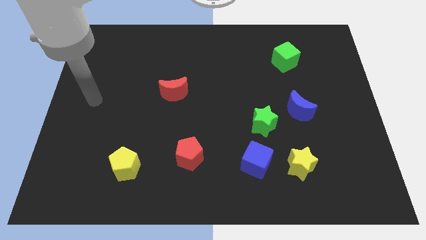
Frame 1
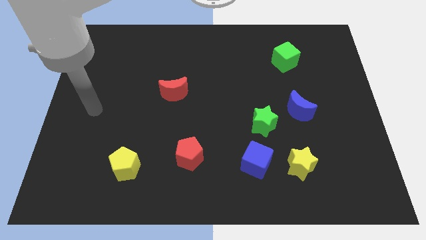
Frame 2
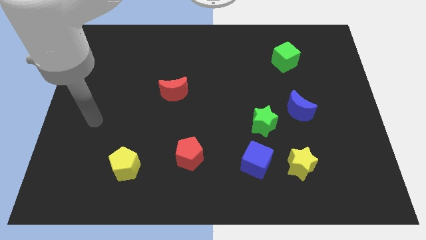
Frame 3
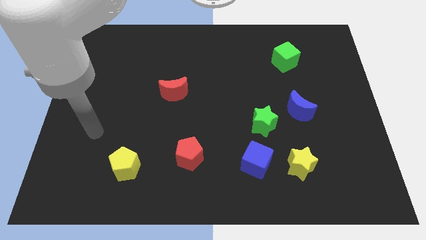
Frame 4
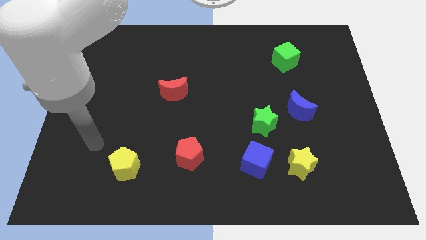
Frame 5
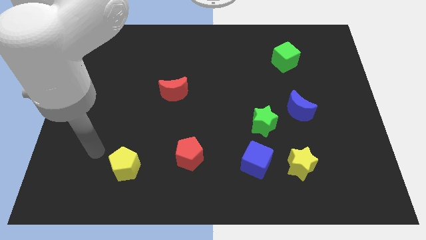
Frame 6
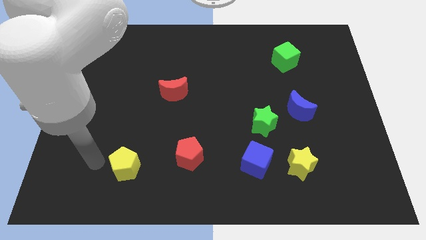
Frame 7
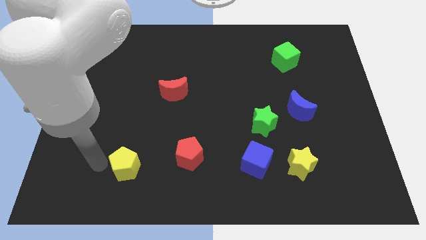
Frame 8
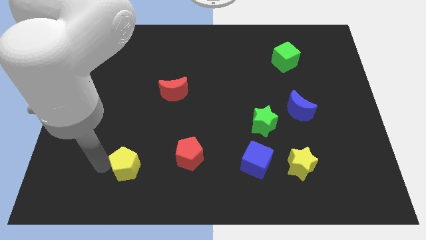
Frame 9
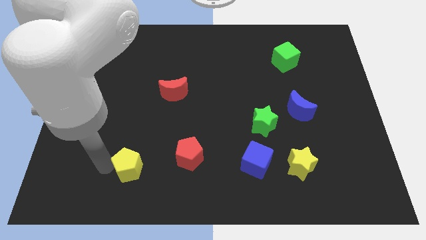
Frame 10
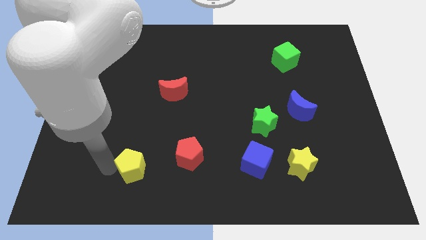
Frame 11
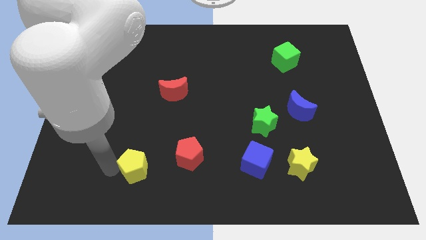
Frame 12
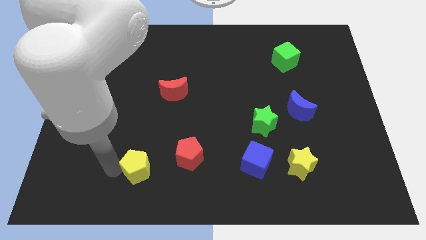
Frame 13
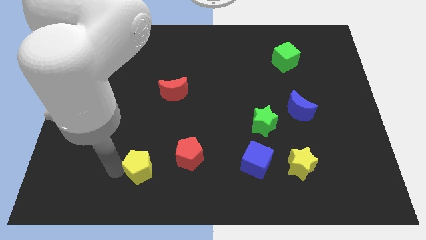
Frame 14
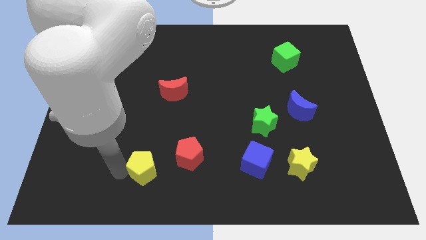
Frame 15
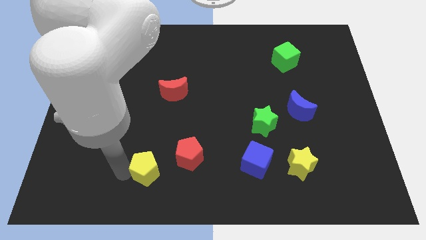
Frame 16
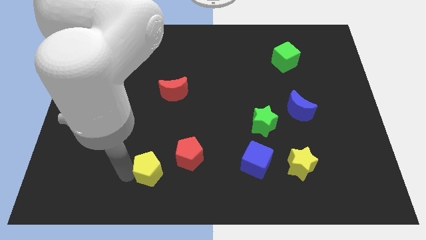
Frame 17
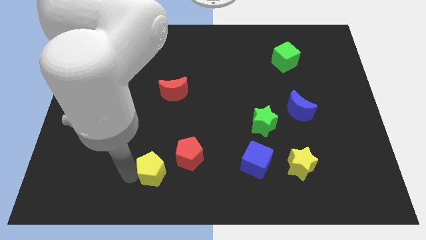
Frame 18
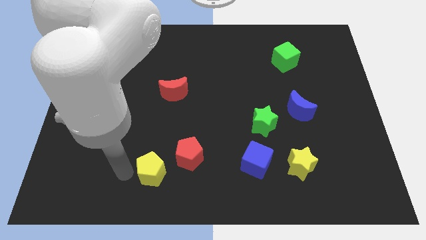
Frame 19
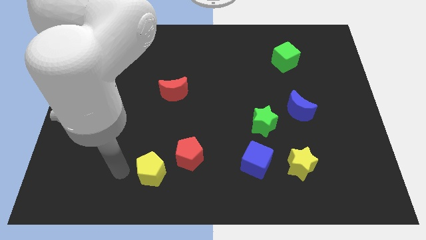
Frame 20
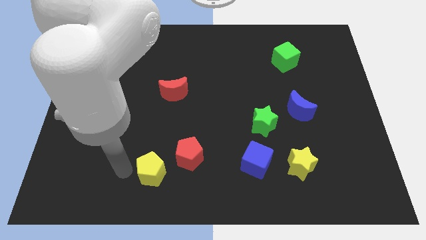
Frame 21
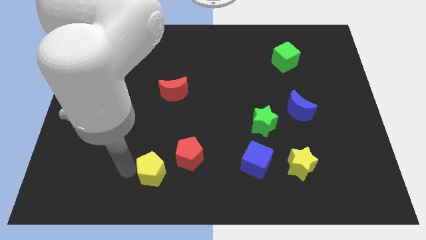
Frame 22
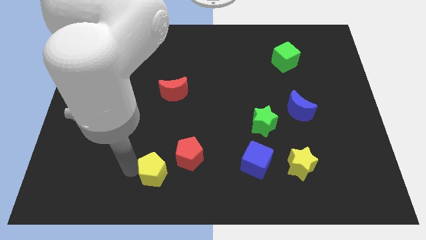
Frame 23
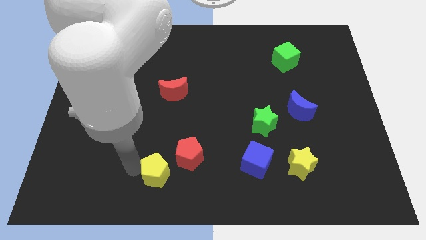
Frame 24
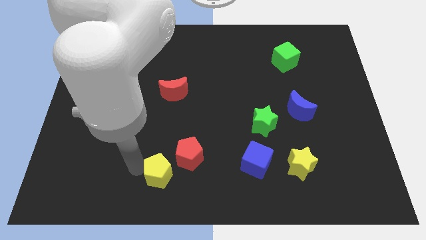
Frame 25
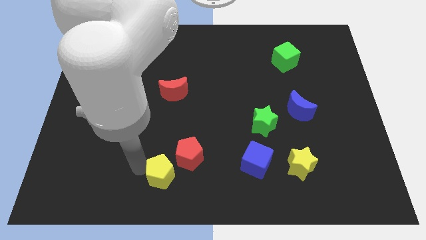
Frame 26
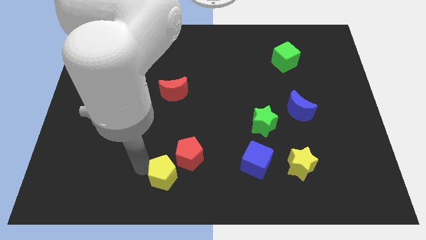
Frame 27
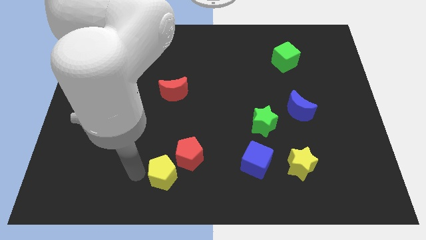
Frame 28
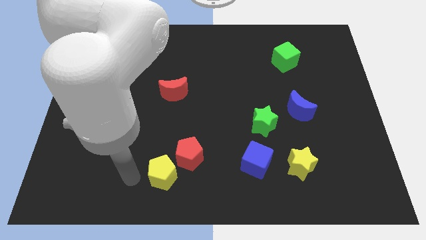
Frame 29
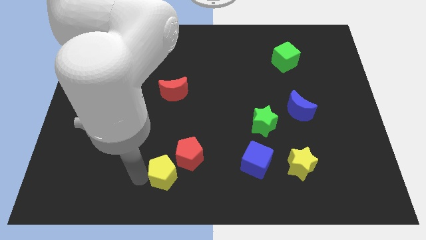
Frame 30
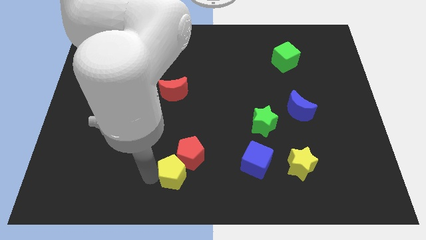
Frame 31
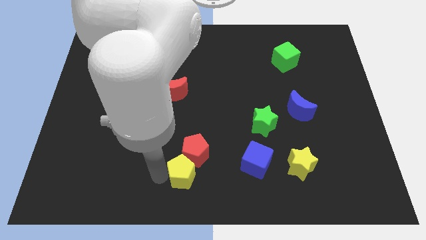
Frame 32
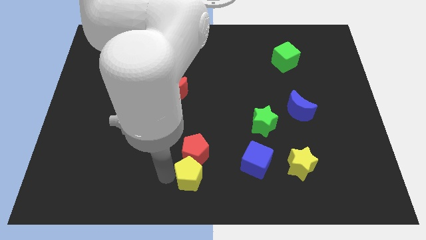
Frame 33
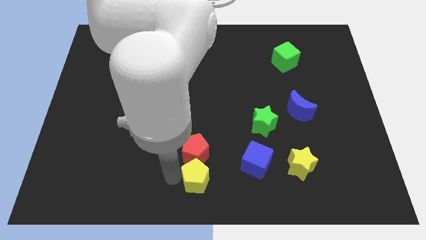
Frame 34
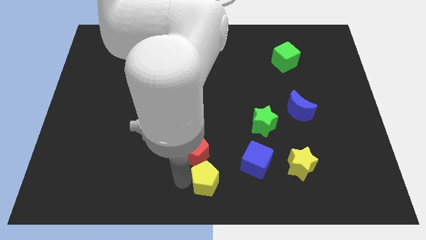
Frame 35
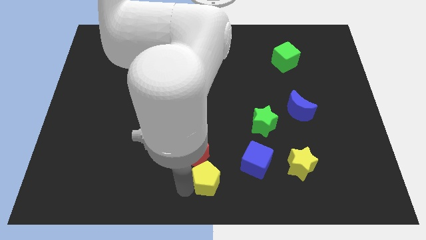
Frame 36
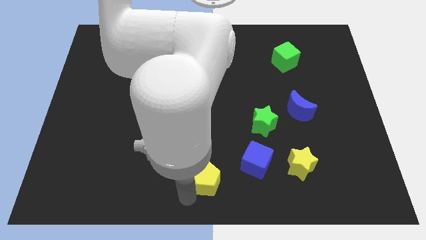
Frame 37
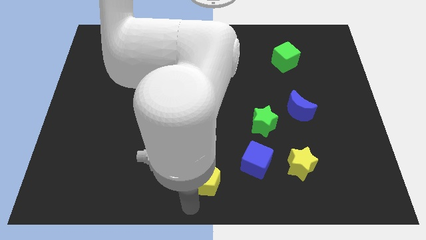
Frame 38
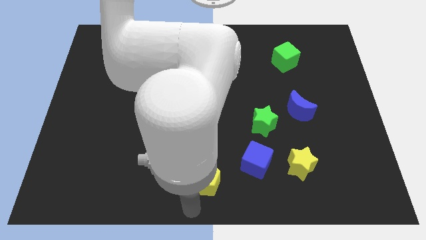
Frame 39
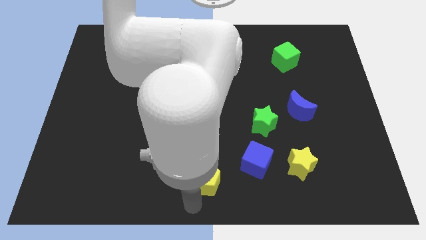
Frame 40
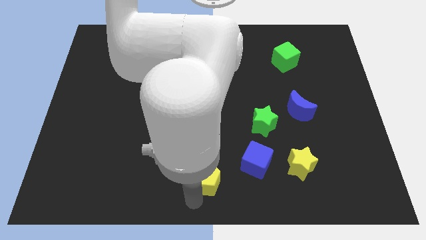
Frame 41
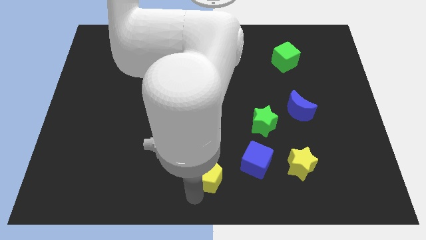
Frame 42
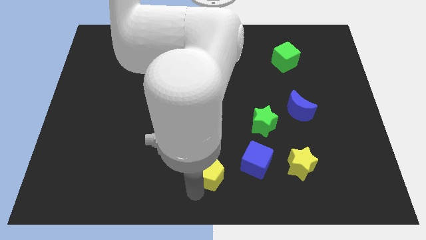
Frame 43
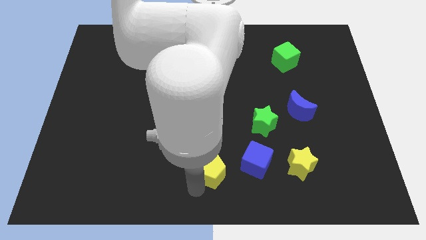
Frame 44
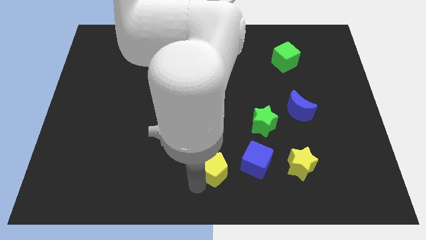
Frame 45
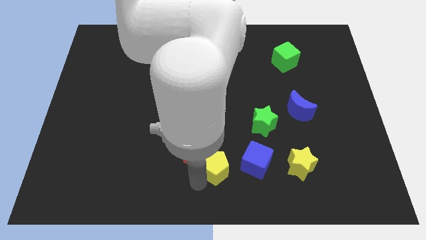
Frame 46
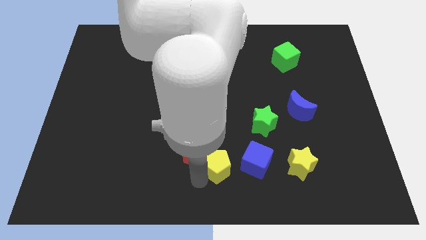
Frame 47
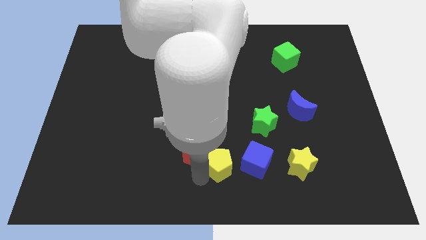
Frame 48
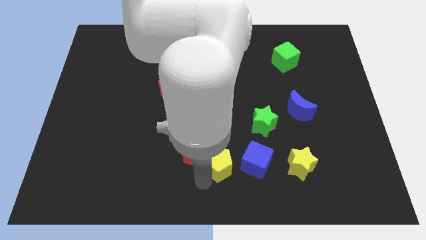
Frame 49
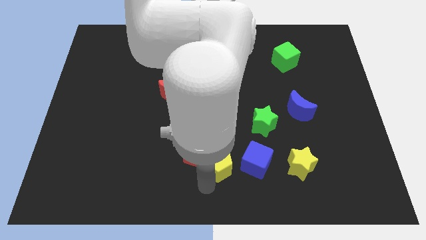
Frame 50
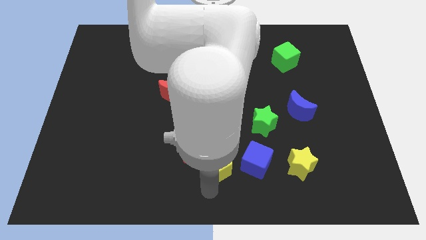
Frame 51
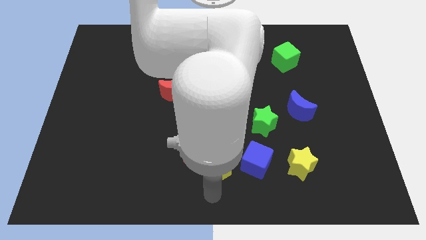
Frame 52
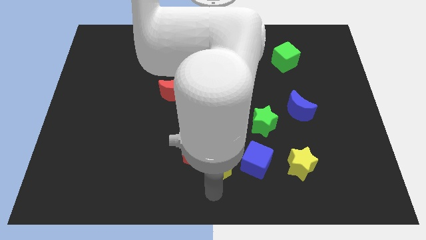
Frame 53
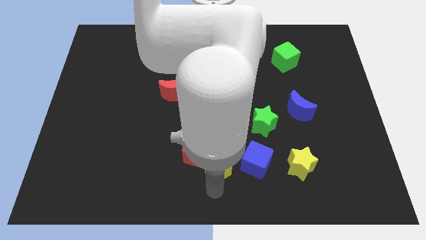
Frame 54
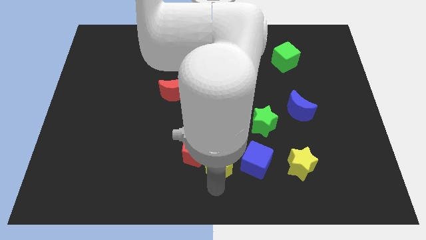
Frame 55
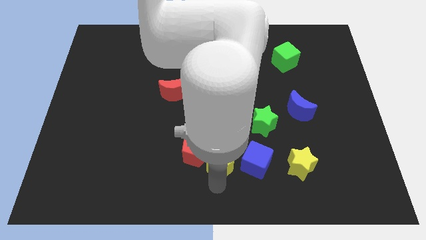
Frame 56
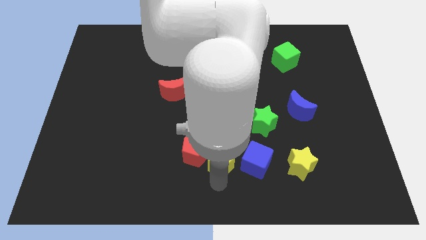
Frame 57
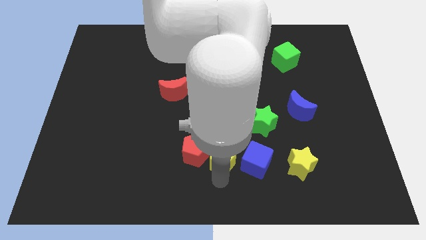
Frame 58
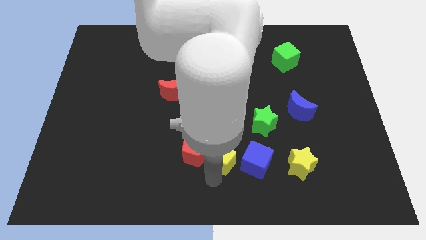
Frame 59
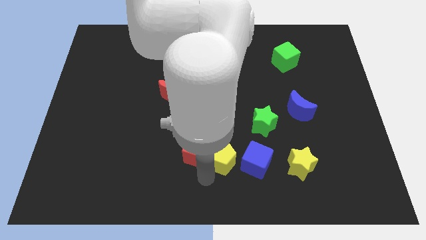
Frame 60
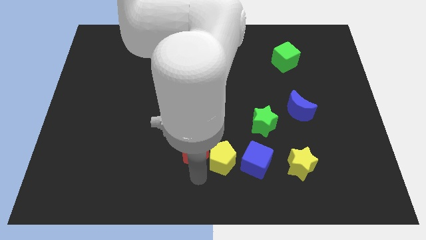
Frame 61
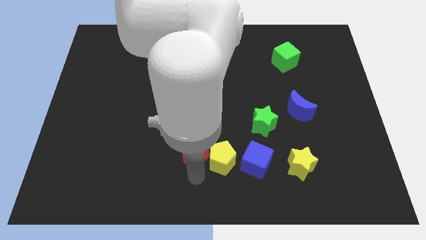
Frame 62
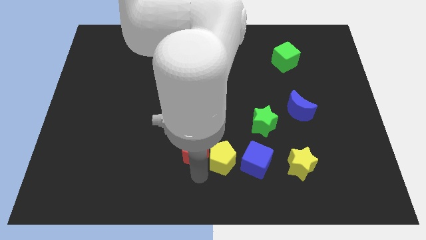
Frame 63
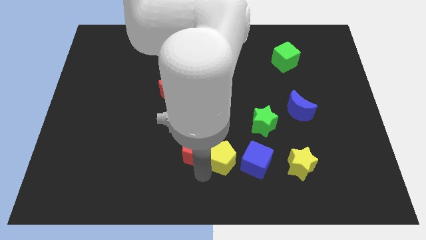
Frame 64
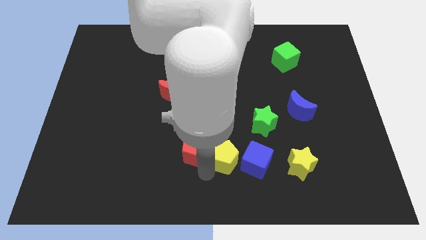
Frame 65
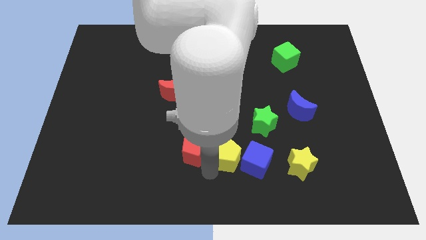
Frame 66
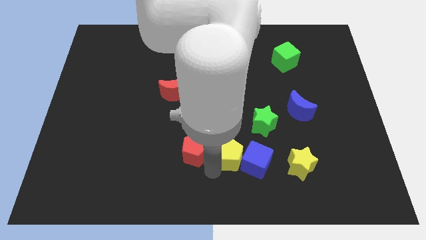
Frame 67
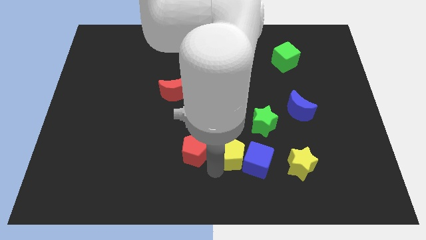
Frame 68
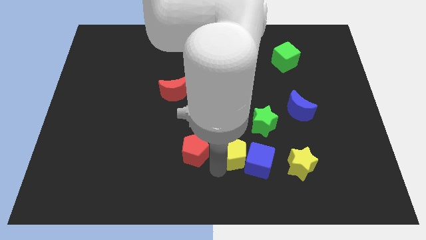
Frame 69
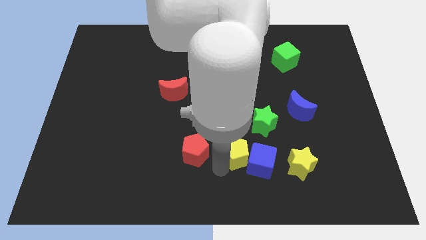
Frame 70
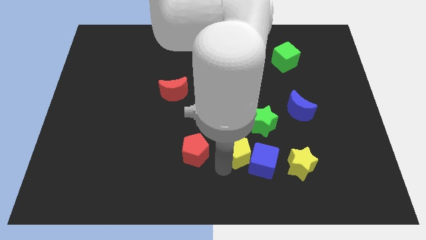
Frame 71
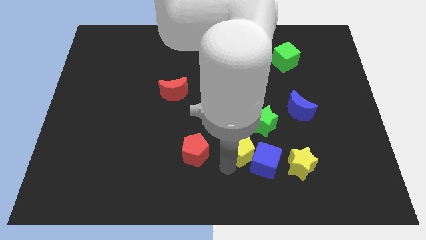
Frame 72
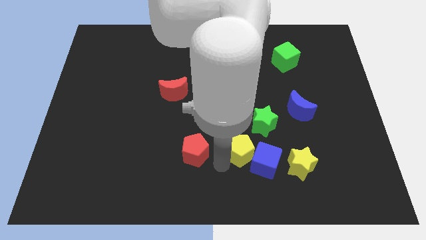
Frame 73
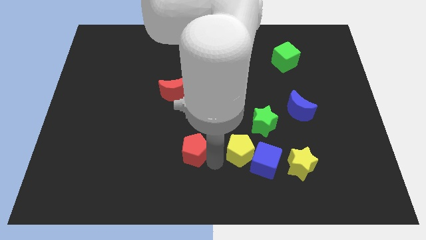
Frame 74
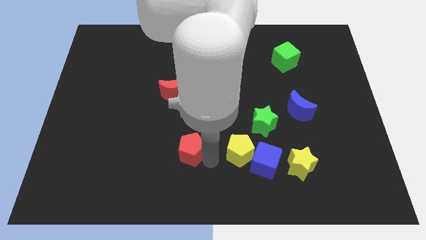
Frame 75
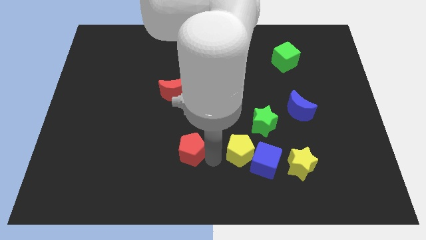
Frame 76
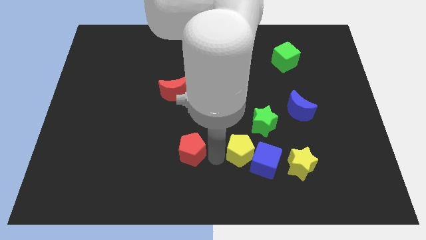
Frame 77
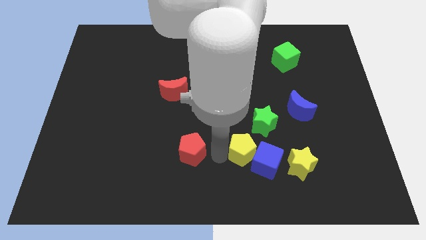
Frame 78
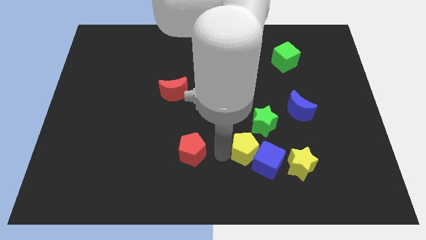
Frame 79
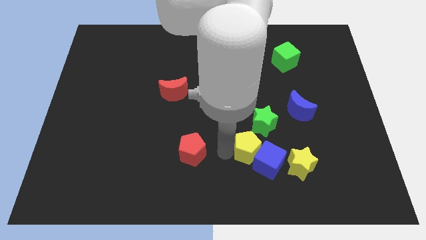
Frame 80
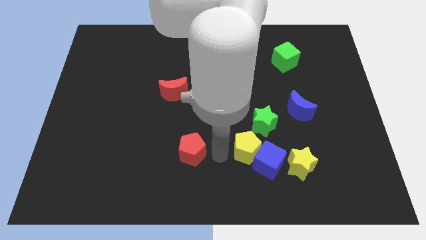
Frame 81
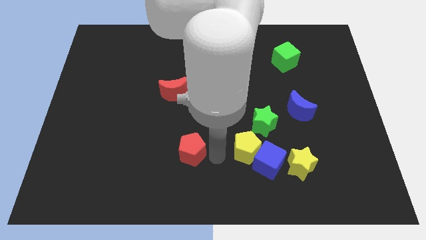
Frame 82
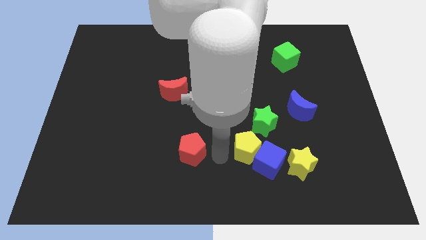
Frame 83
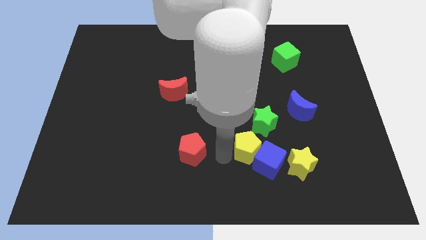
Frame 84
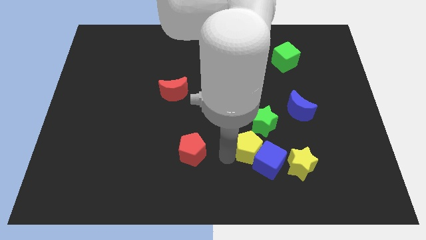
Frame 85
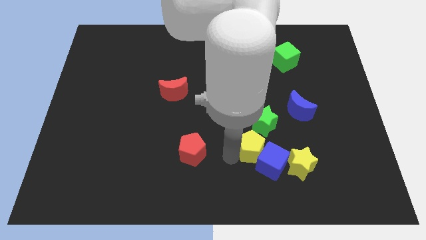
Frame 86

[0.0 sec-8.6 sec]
push the yellow pentagon to the top left side of the yellow star
